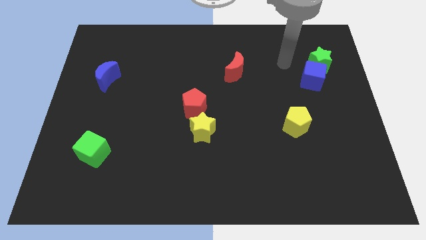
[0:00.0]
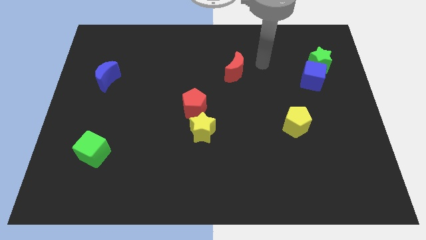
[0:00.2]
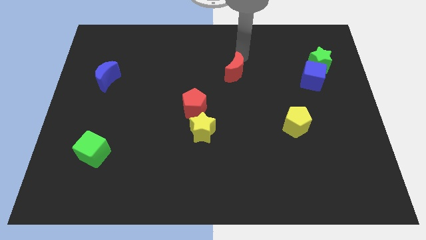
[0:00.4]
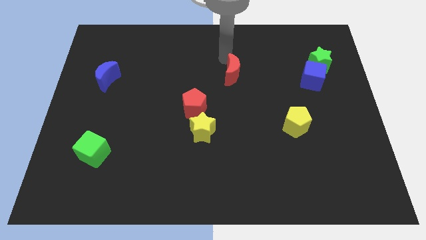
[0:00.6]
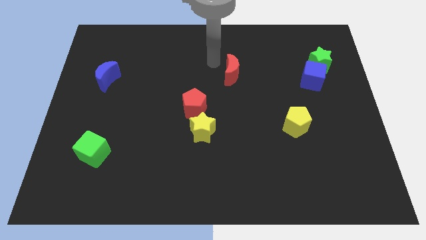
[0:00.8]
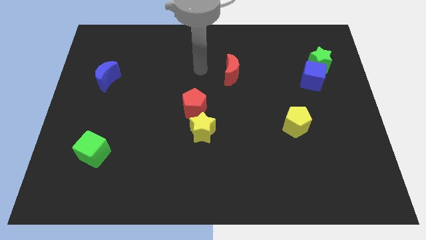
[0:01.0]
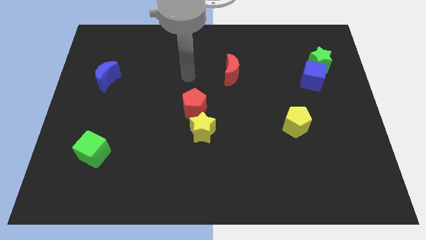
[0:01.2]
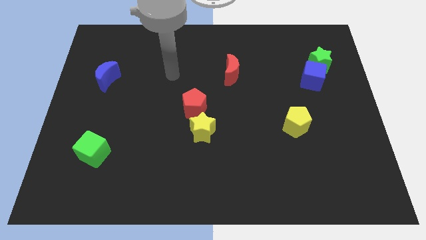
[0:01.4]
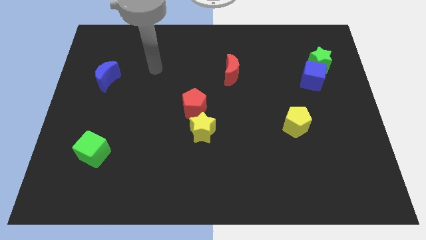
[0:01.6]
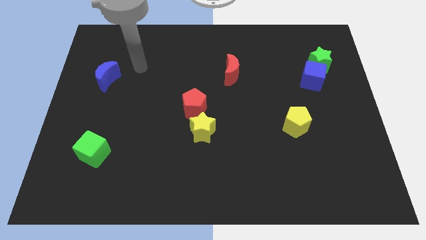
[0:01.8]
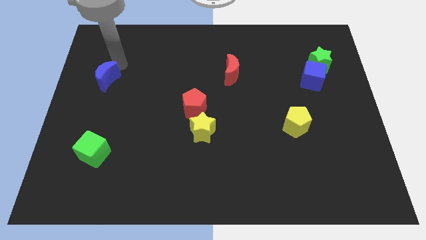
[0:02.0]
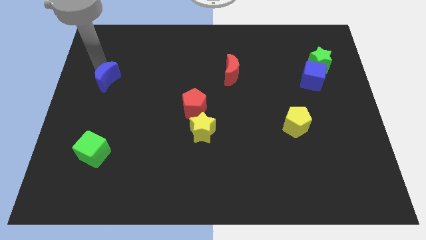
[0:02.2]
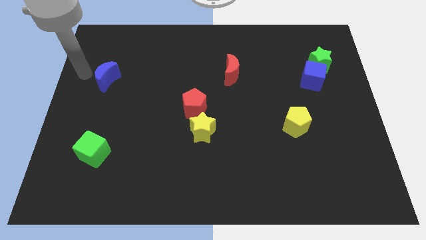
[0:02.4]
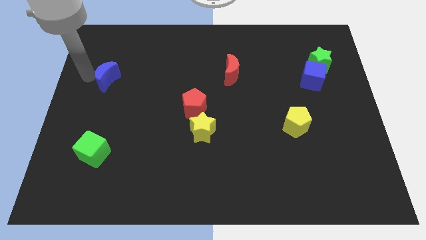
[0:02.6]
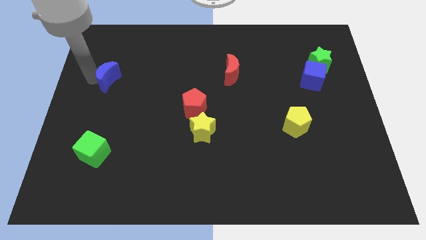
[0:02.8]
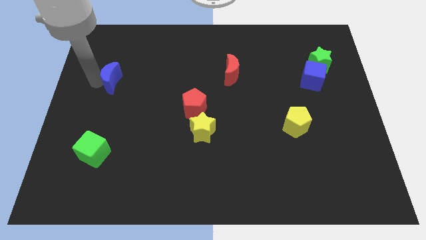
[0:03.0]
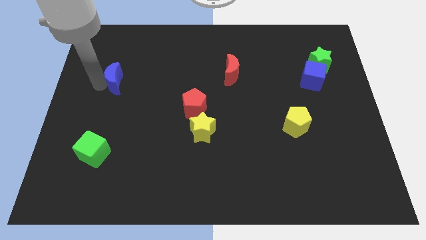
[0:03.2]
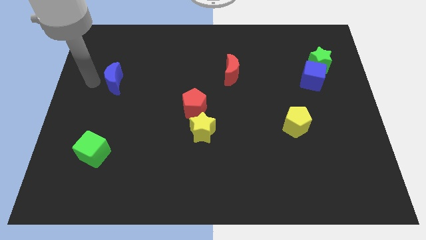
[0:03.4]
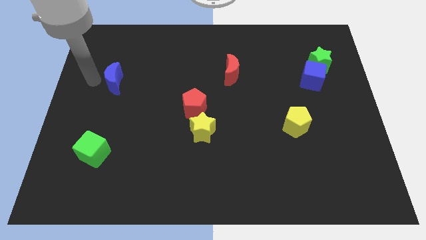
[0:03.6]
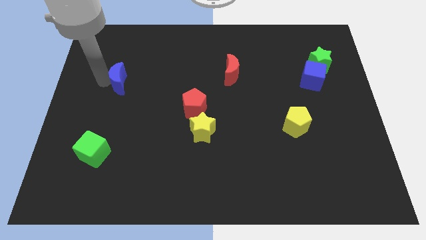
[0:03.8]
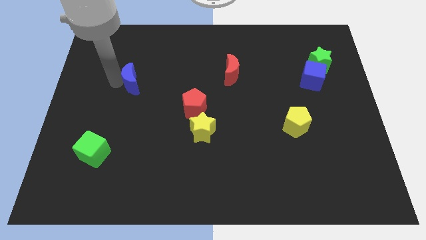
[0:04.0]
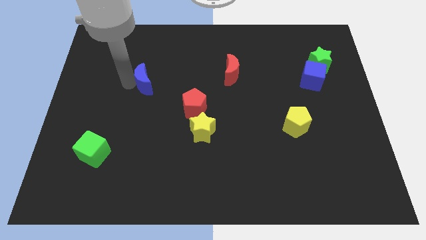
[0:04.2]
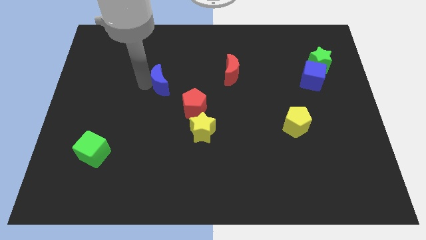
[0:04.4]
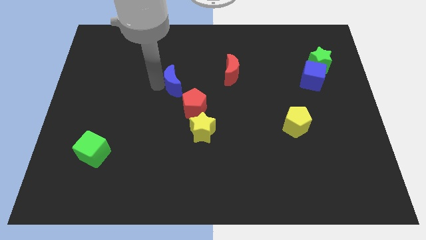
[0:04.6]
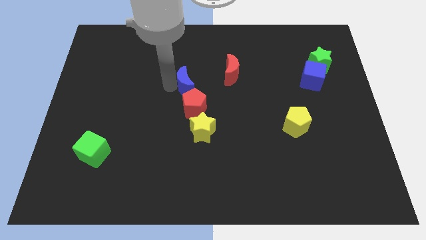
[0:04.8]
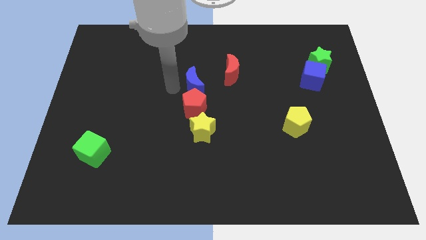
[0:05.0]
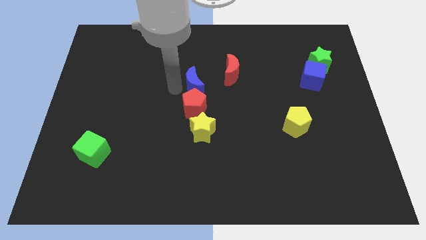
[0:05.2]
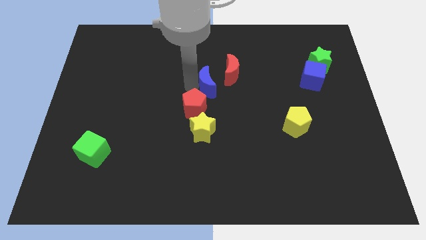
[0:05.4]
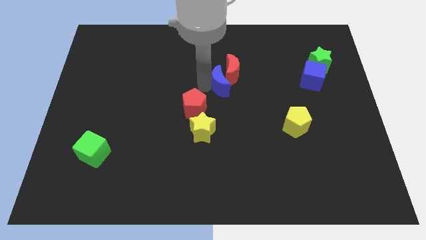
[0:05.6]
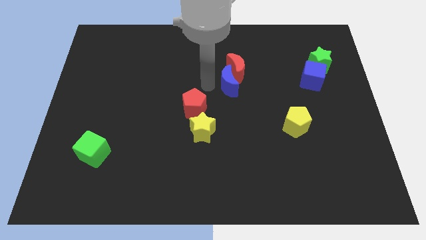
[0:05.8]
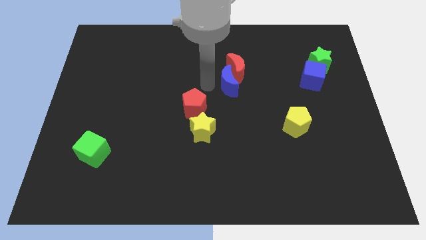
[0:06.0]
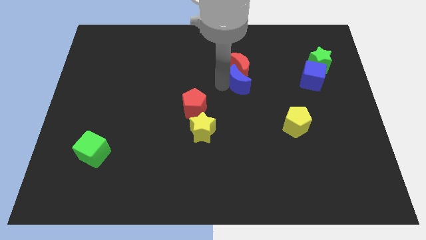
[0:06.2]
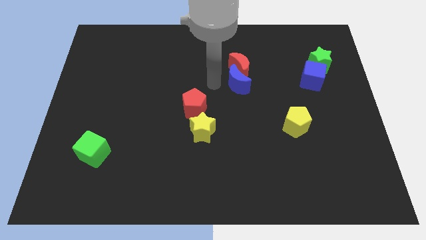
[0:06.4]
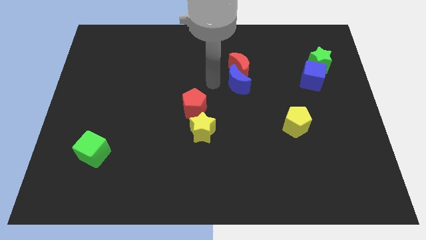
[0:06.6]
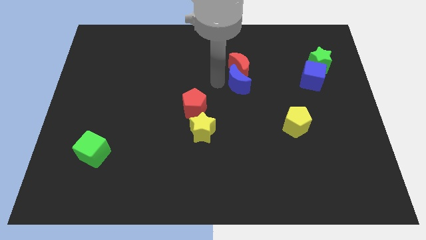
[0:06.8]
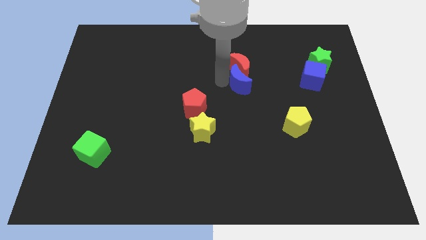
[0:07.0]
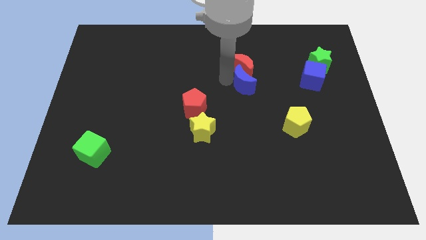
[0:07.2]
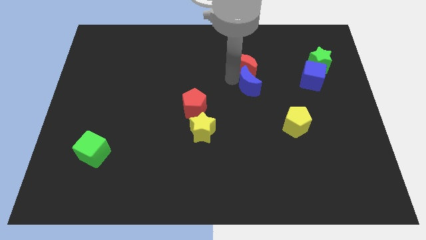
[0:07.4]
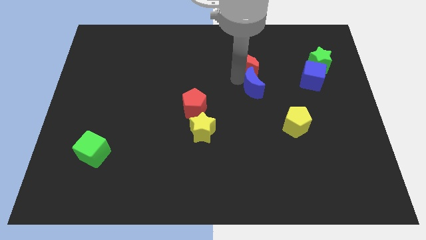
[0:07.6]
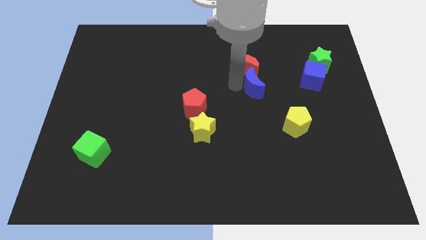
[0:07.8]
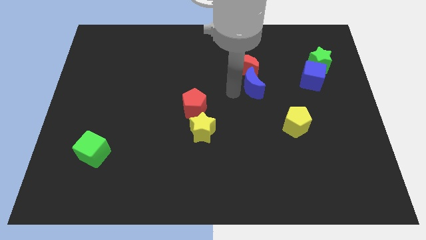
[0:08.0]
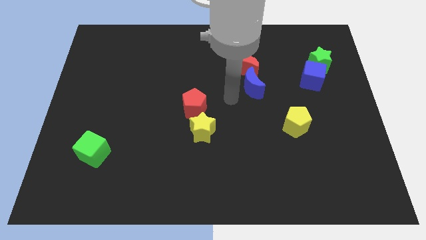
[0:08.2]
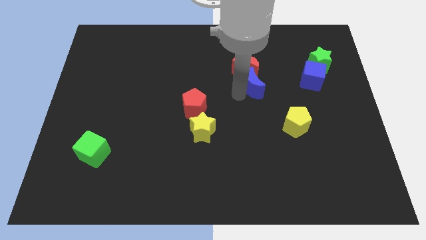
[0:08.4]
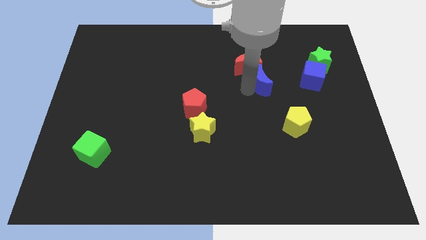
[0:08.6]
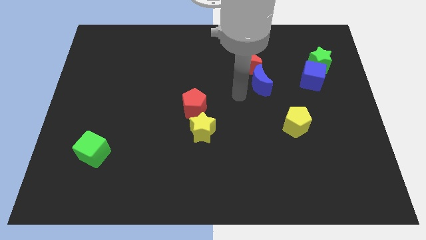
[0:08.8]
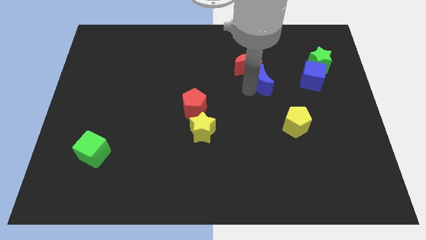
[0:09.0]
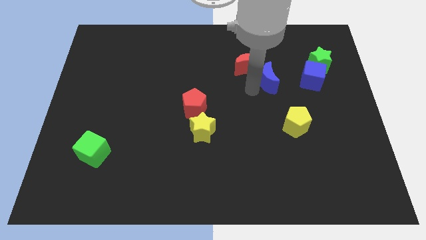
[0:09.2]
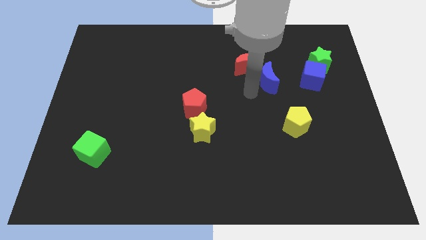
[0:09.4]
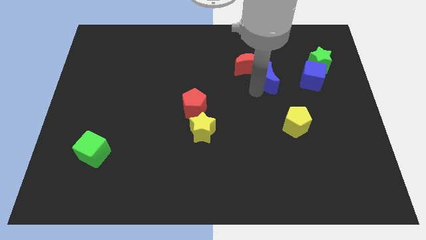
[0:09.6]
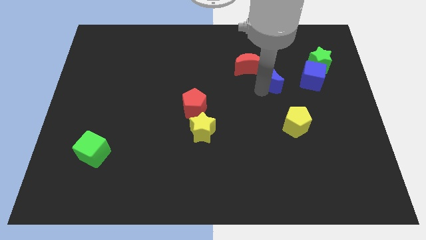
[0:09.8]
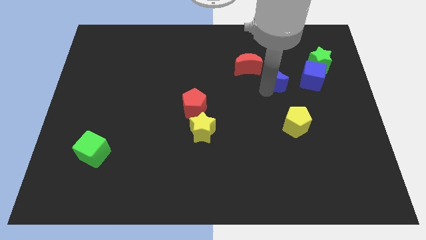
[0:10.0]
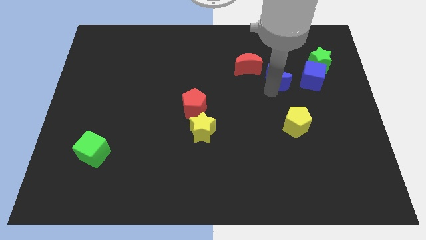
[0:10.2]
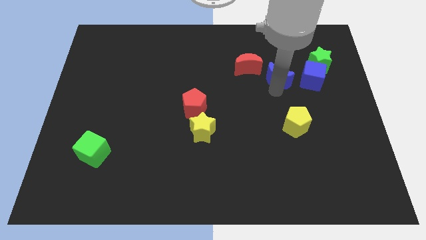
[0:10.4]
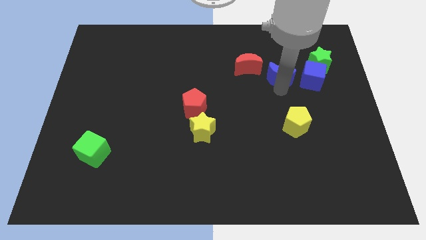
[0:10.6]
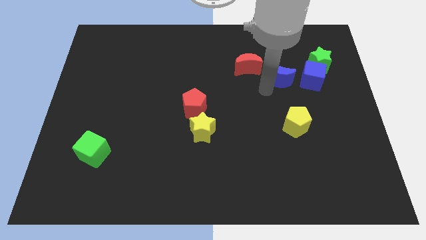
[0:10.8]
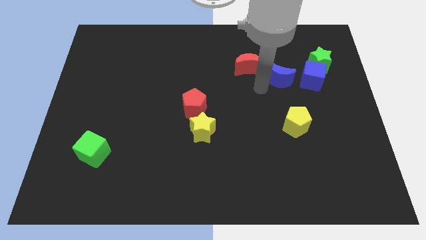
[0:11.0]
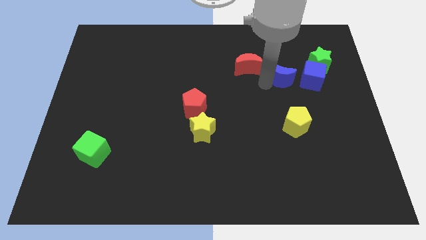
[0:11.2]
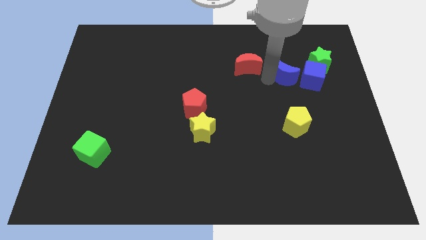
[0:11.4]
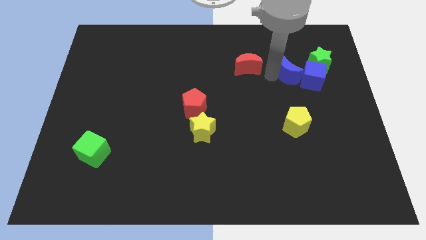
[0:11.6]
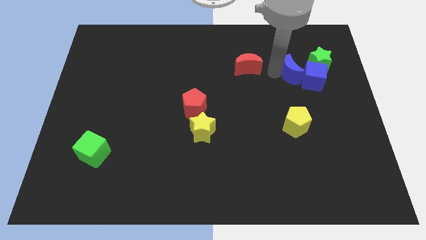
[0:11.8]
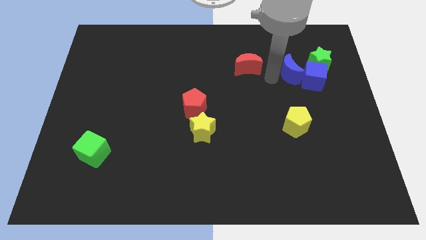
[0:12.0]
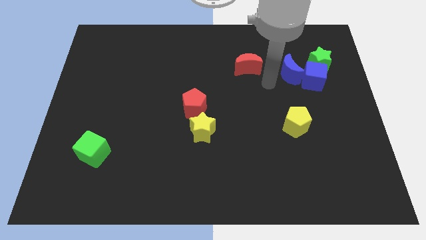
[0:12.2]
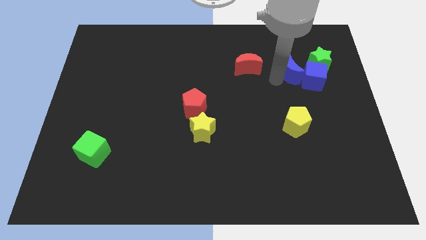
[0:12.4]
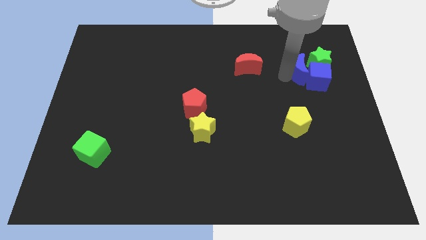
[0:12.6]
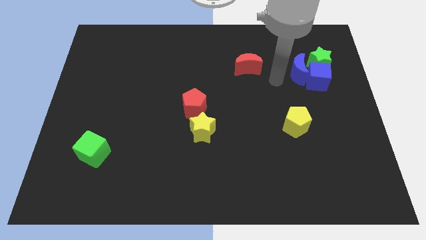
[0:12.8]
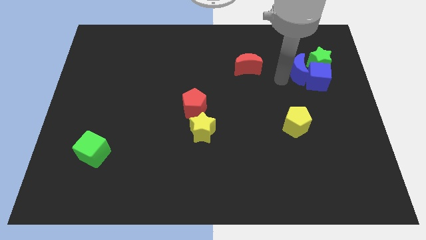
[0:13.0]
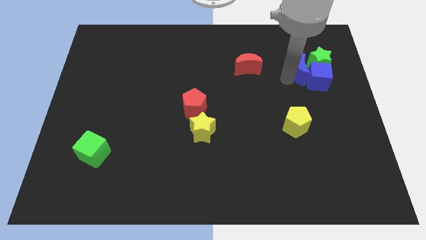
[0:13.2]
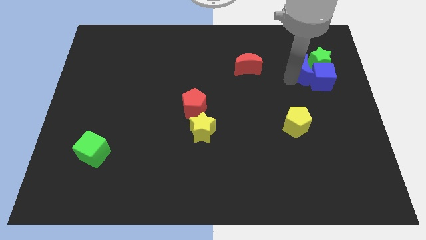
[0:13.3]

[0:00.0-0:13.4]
move the blue moon close to the green star

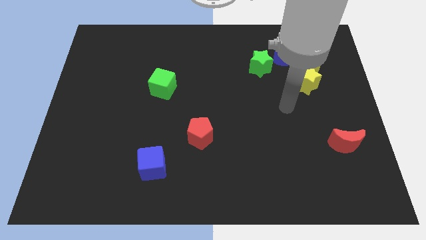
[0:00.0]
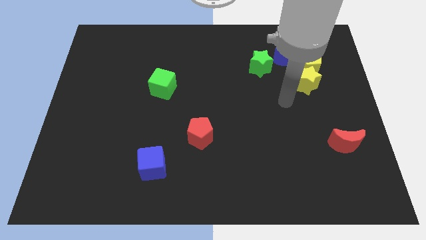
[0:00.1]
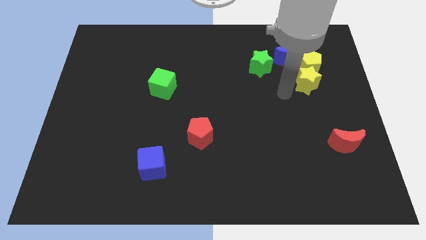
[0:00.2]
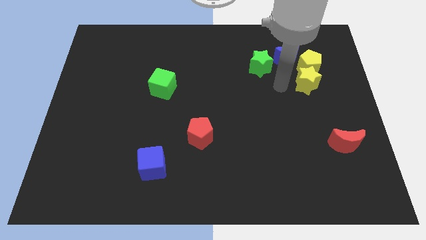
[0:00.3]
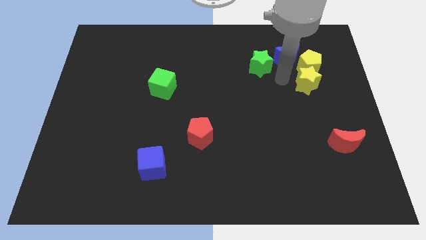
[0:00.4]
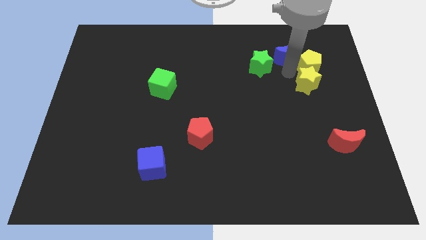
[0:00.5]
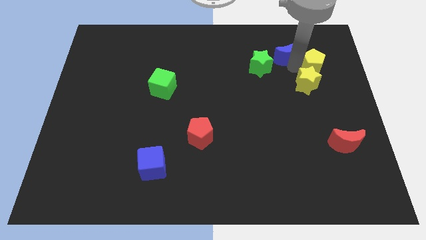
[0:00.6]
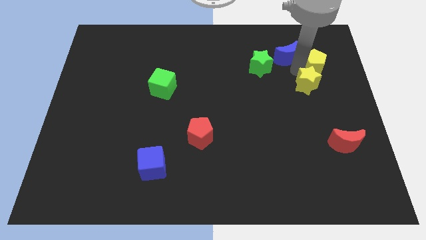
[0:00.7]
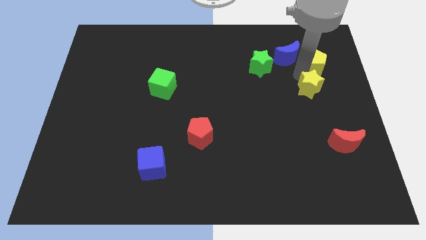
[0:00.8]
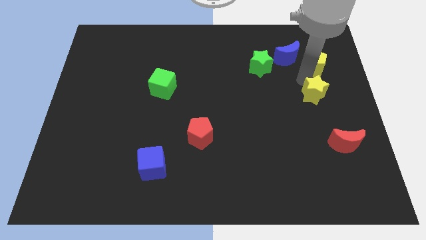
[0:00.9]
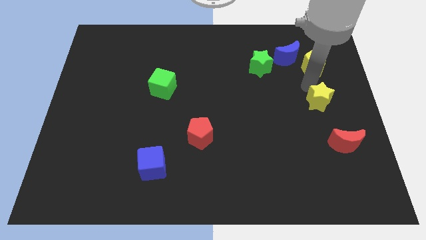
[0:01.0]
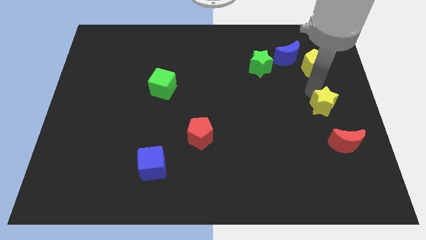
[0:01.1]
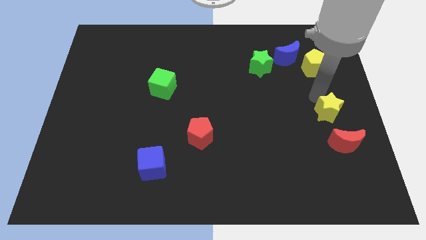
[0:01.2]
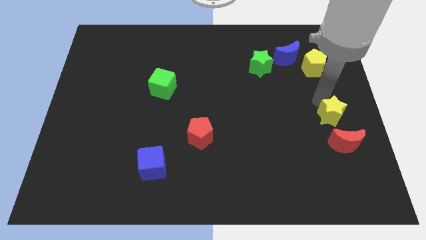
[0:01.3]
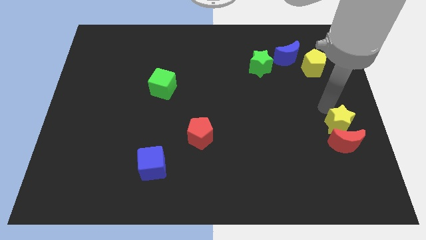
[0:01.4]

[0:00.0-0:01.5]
slide the yellow star towards the red moon
